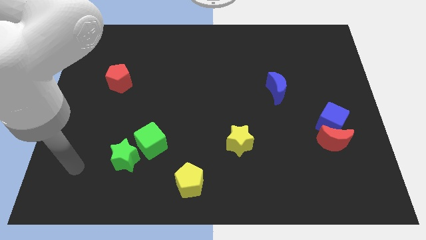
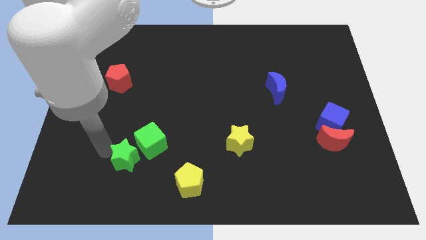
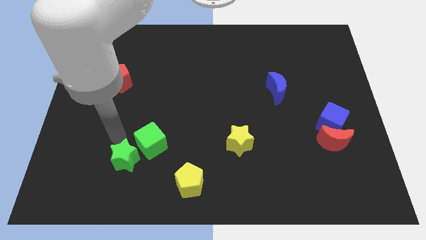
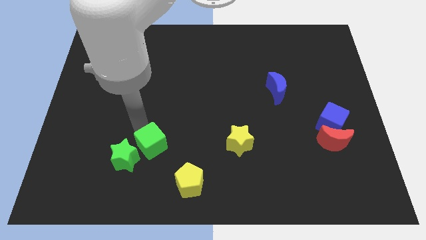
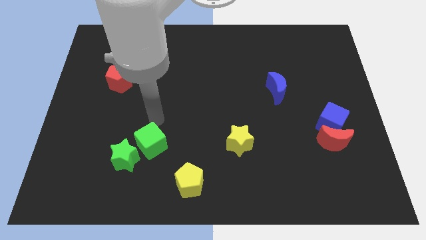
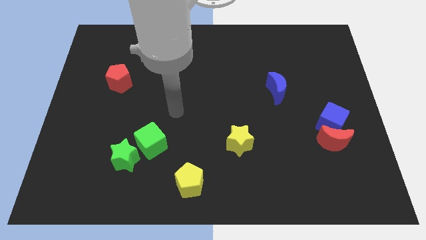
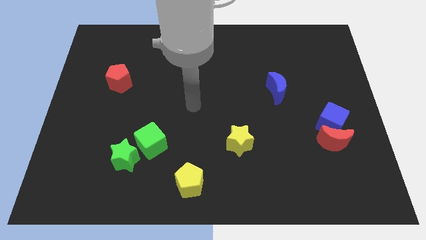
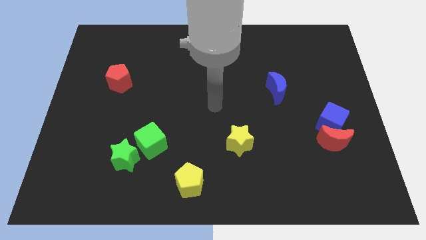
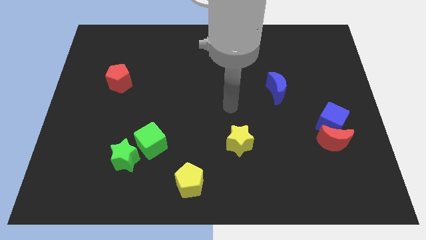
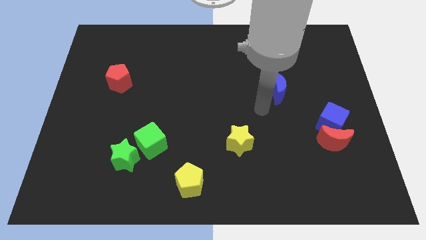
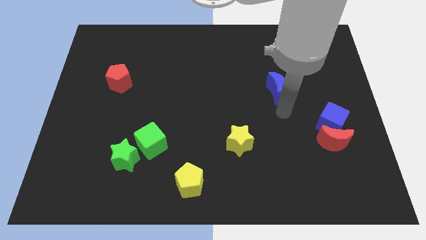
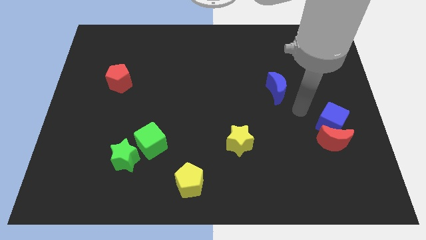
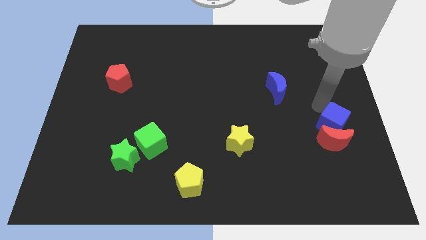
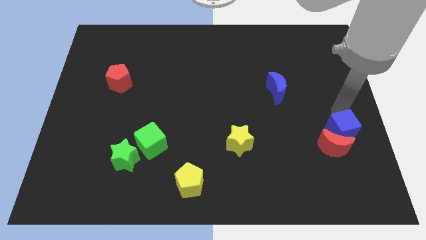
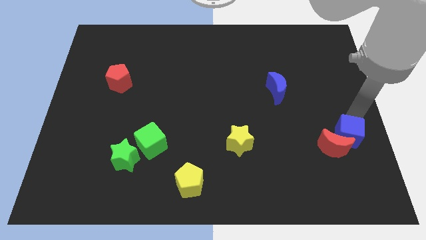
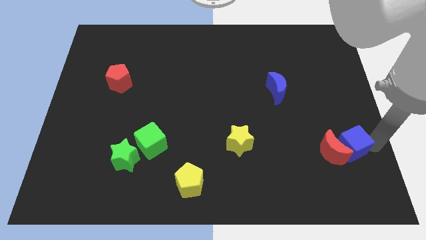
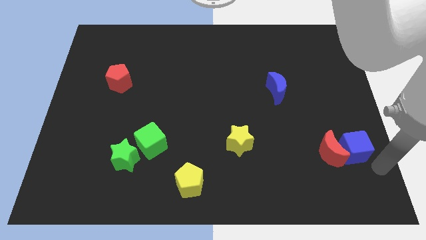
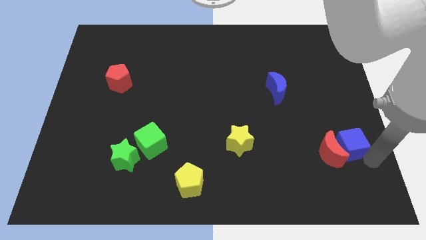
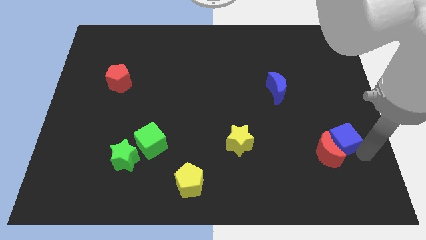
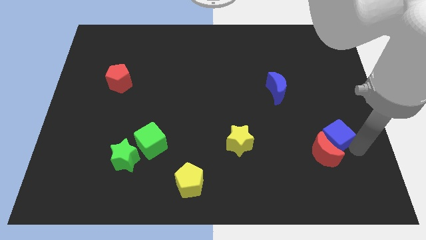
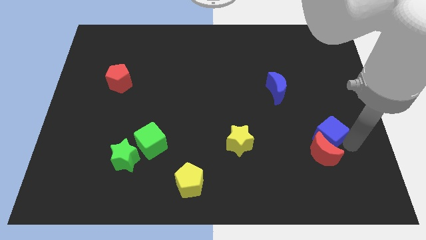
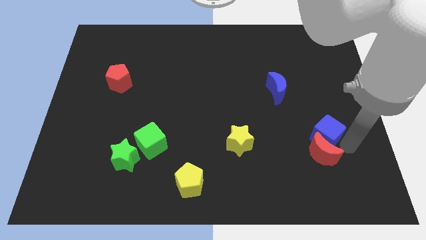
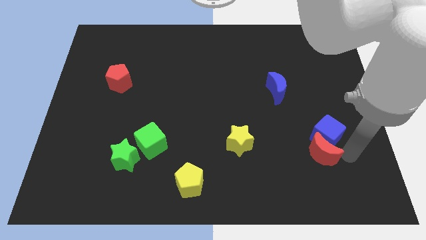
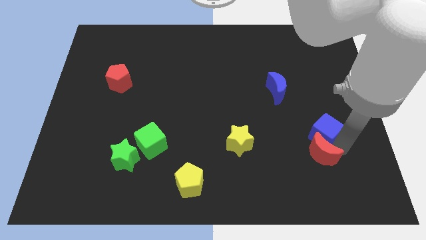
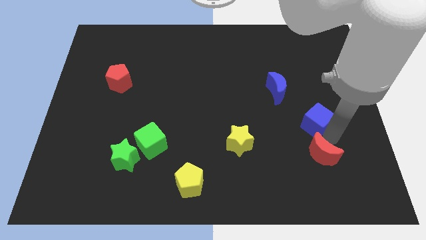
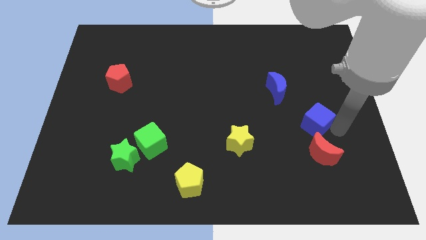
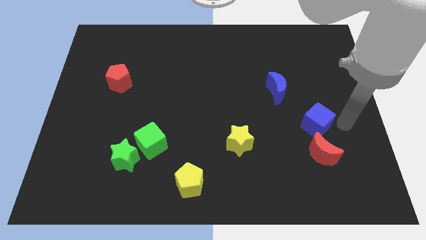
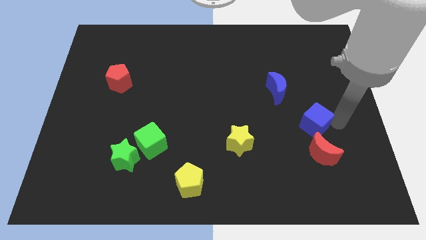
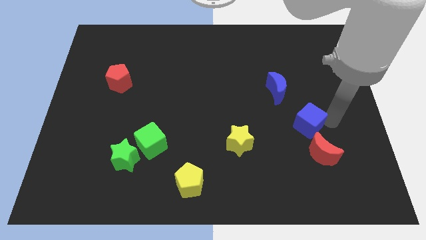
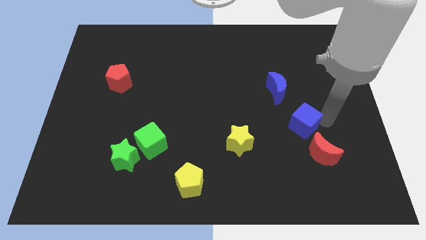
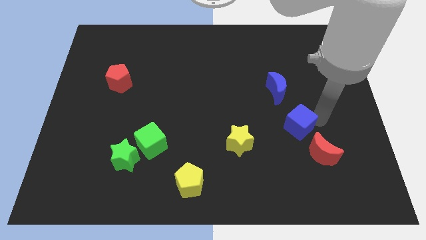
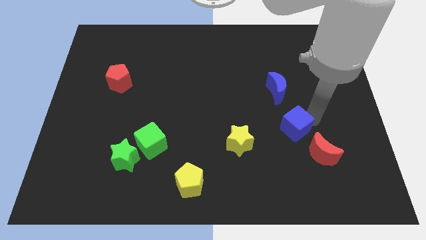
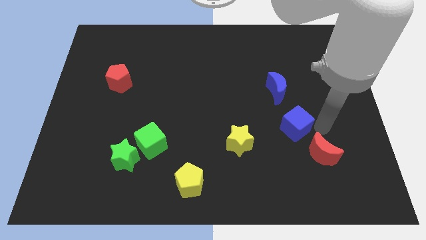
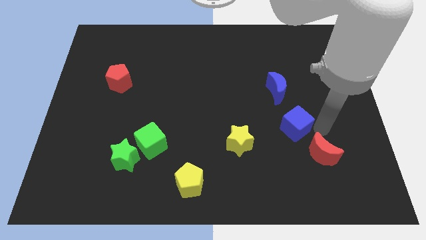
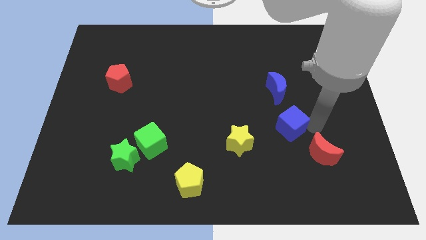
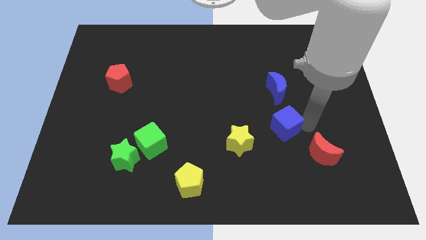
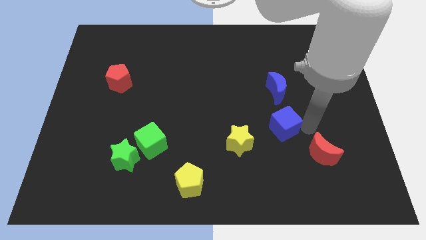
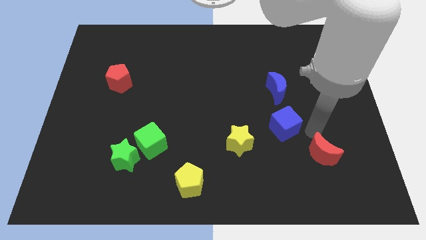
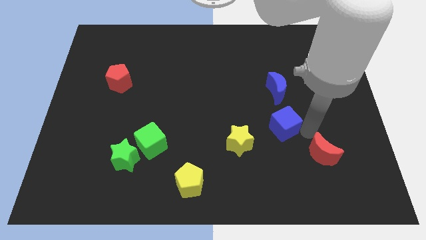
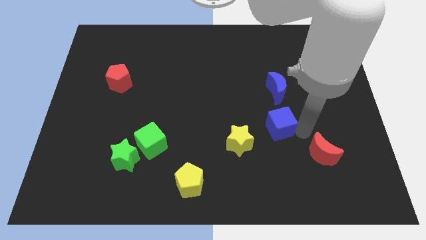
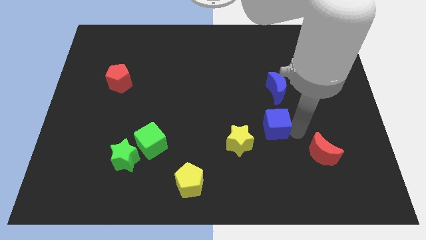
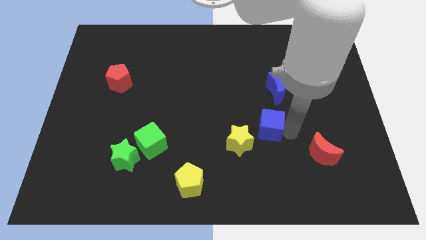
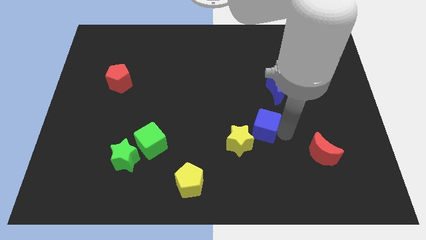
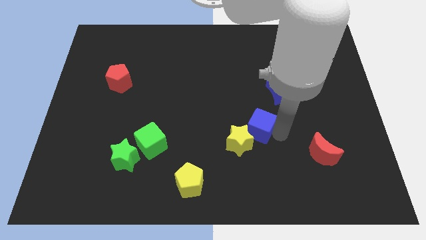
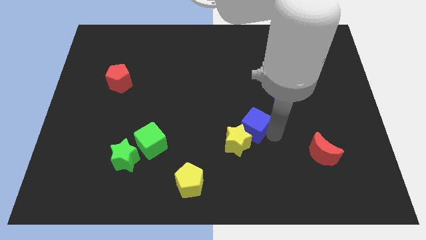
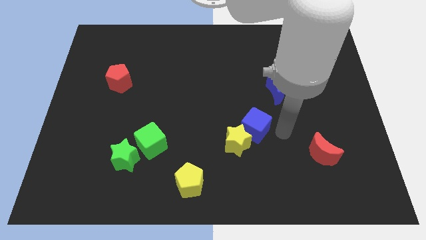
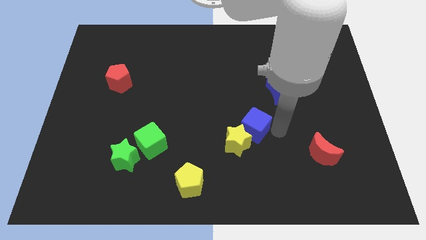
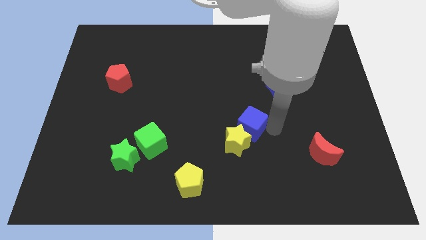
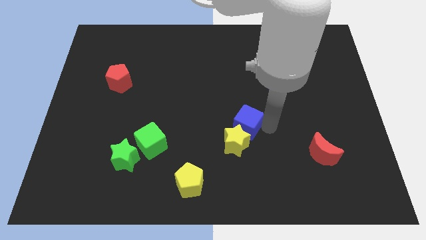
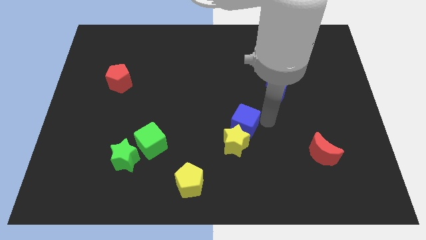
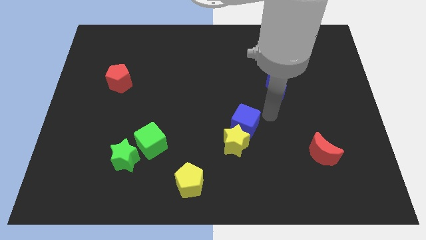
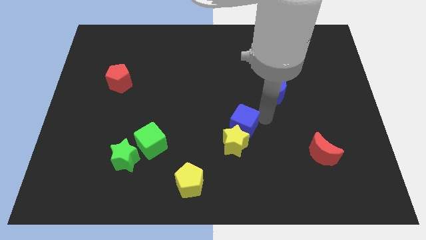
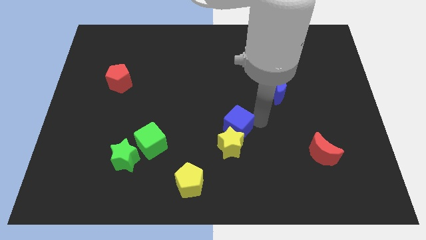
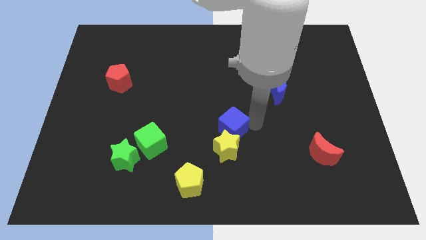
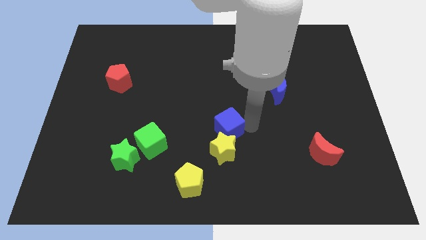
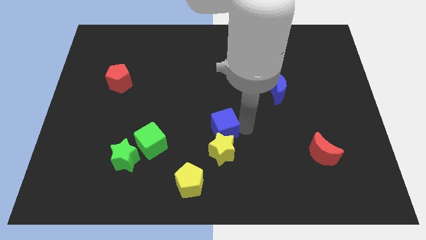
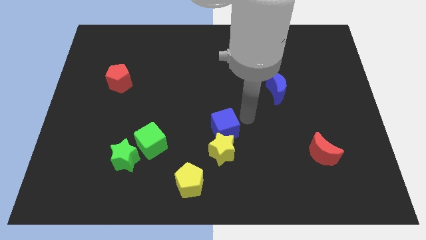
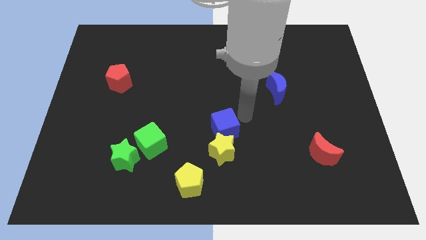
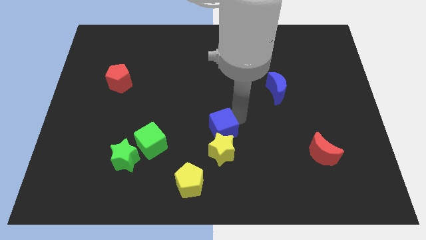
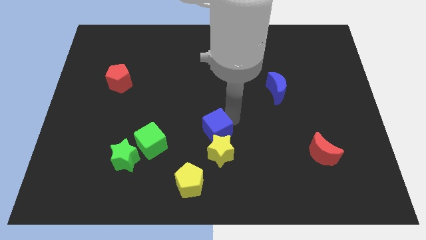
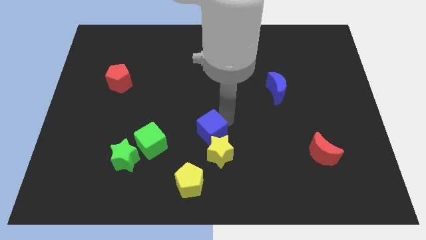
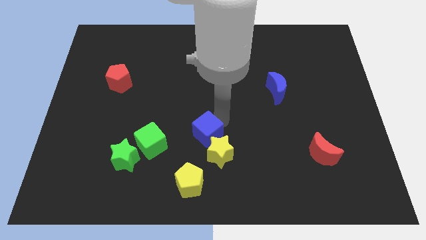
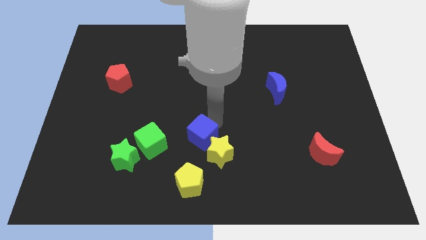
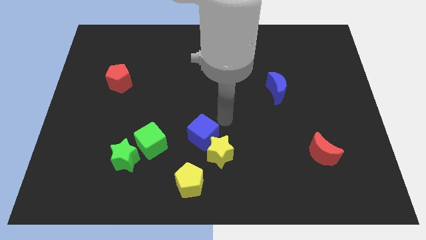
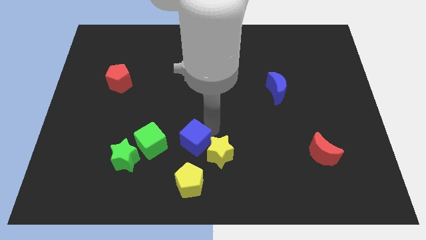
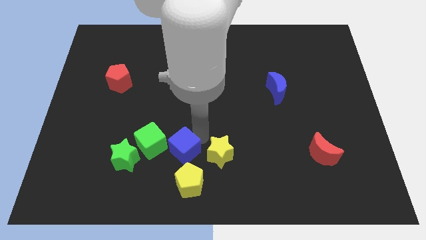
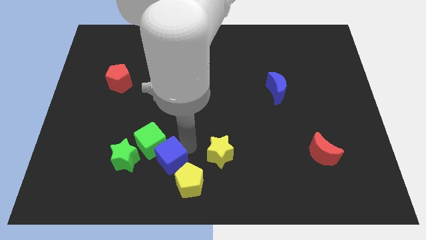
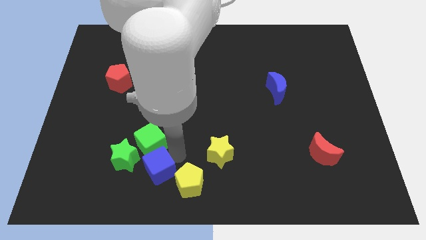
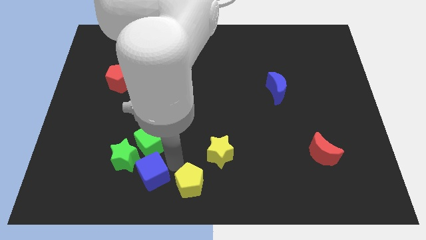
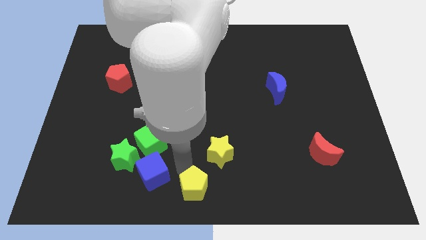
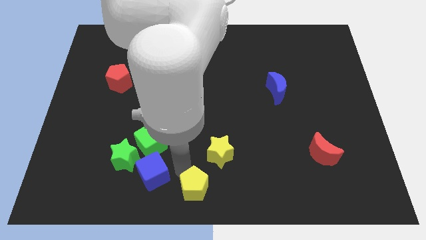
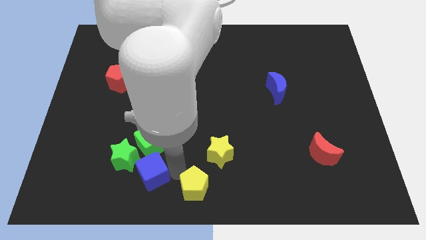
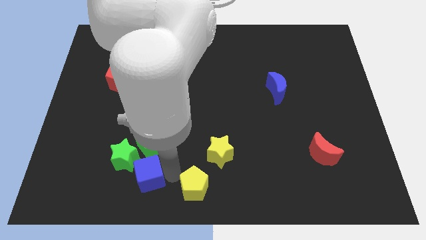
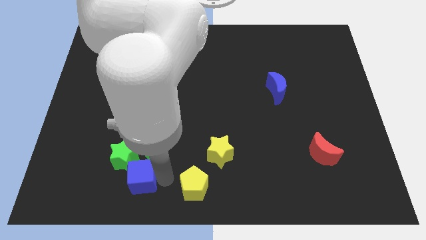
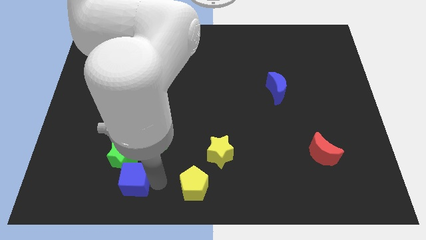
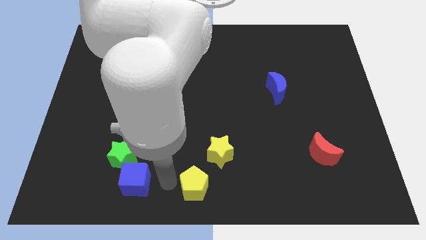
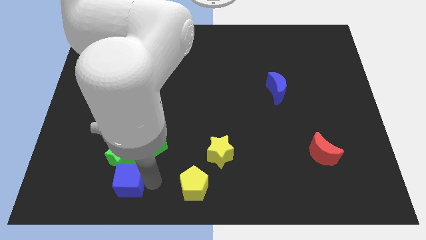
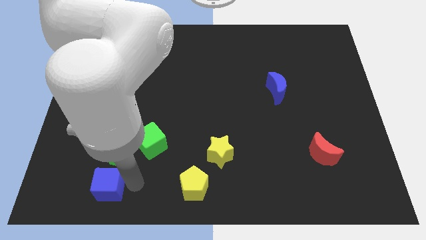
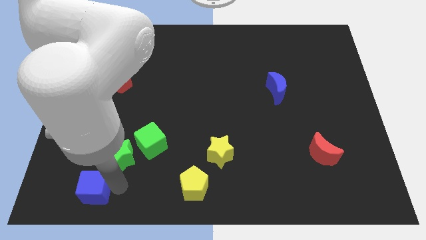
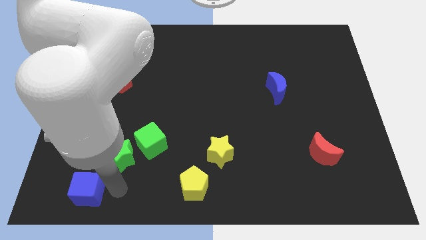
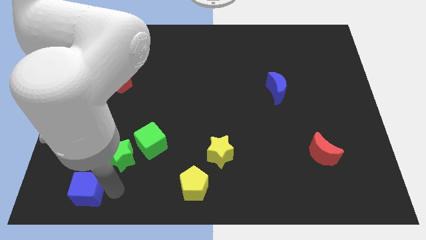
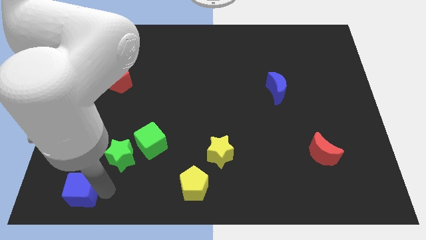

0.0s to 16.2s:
push the blue cube to the bottom left corner
